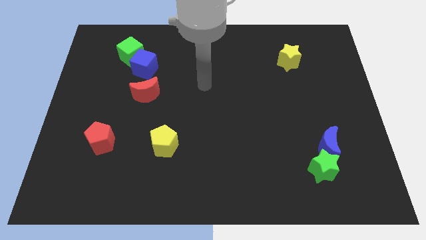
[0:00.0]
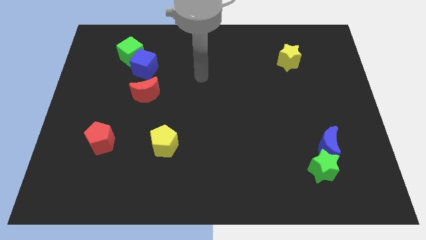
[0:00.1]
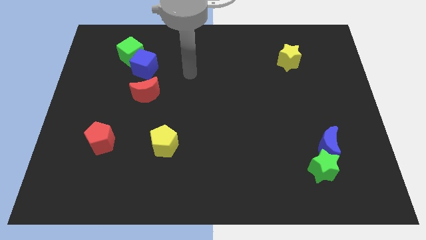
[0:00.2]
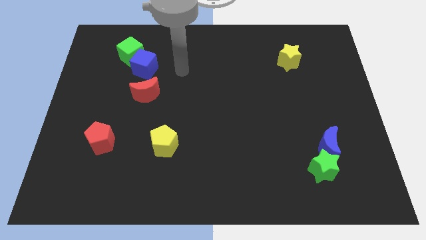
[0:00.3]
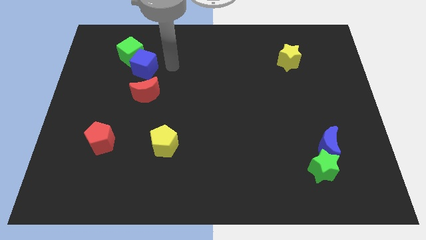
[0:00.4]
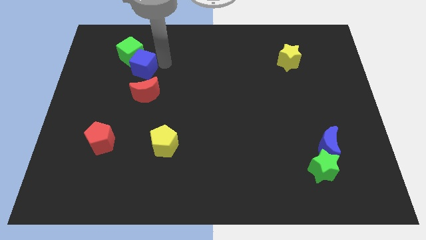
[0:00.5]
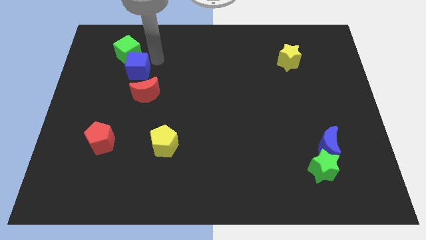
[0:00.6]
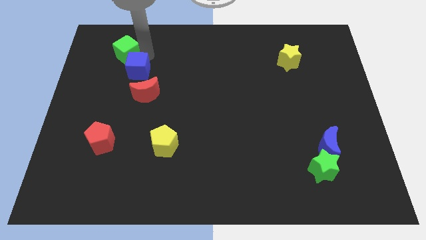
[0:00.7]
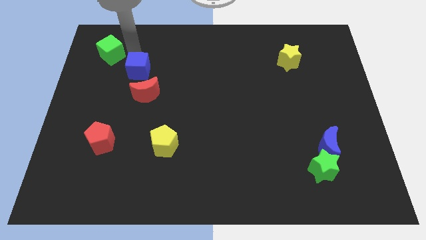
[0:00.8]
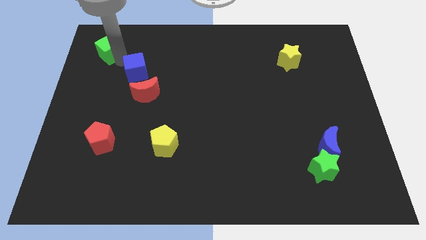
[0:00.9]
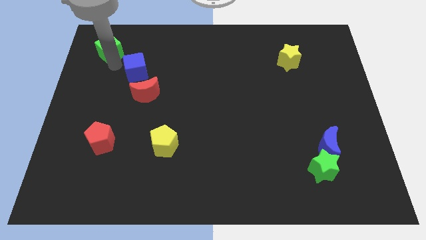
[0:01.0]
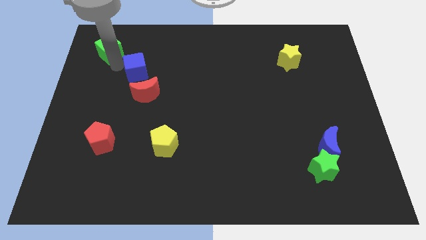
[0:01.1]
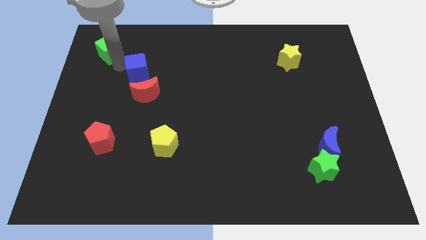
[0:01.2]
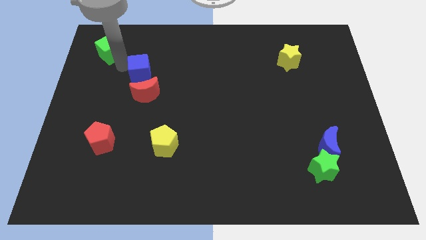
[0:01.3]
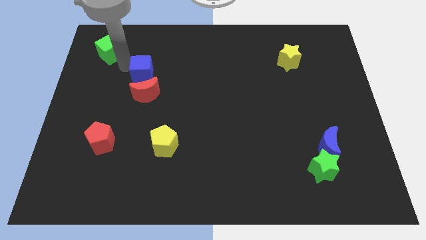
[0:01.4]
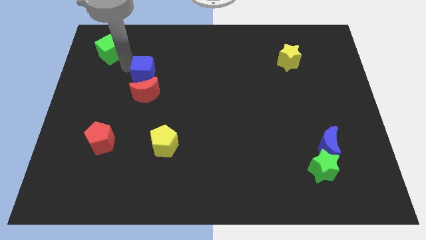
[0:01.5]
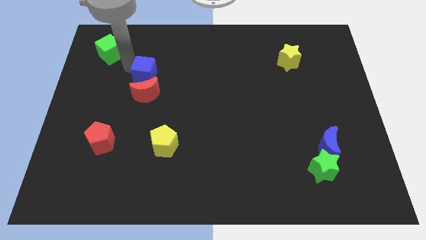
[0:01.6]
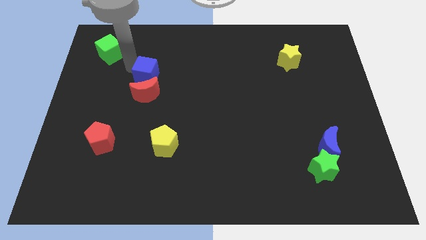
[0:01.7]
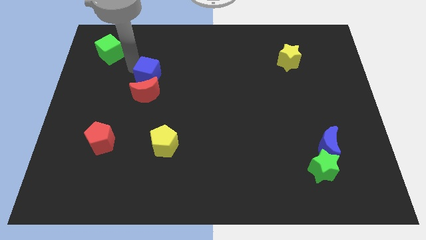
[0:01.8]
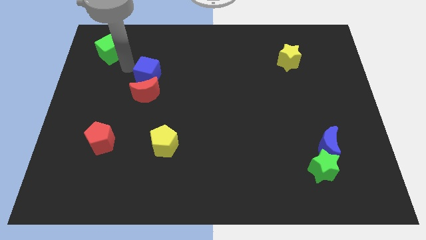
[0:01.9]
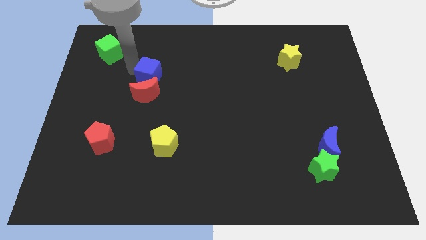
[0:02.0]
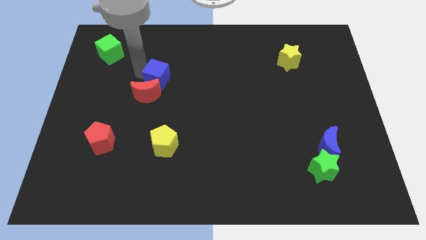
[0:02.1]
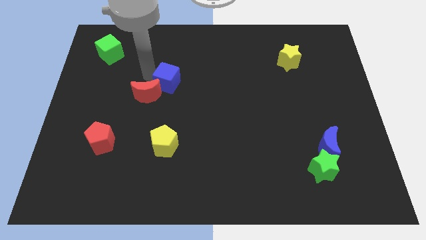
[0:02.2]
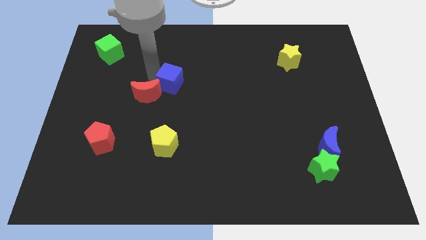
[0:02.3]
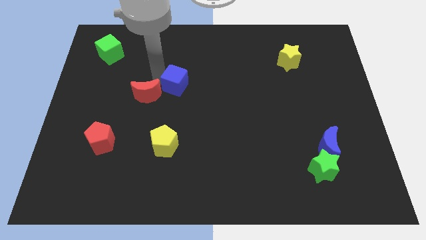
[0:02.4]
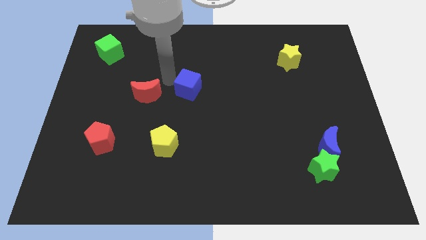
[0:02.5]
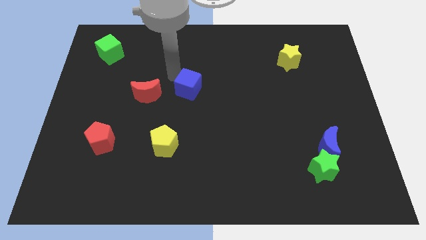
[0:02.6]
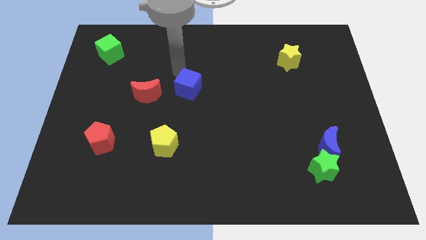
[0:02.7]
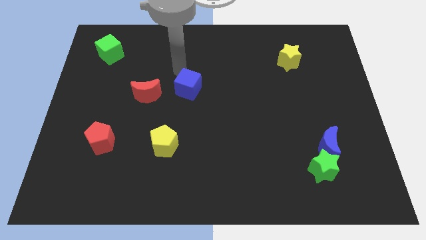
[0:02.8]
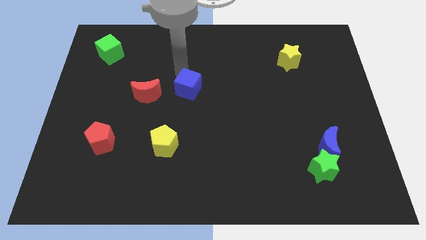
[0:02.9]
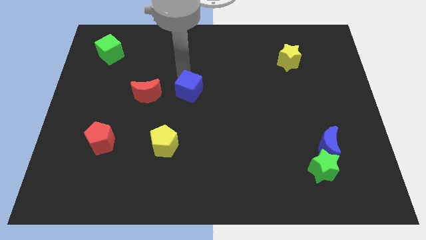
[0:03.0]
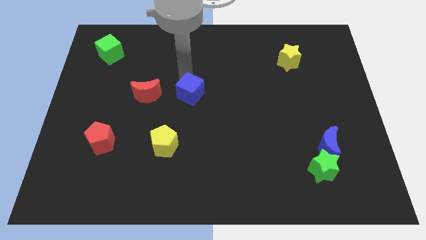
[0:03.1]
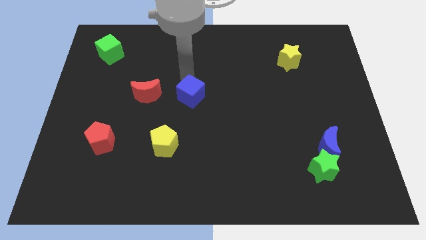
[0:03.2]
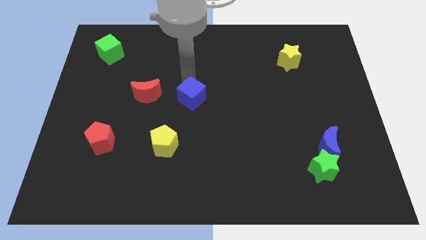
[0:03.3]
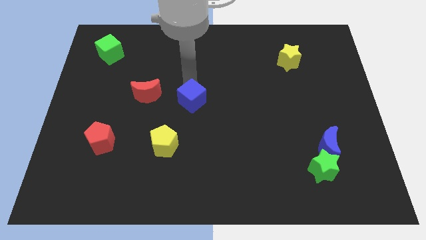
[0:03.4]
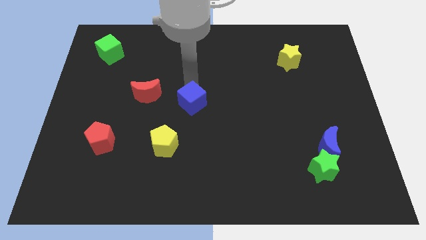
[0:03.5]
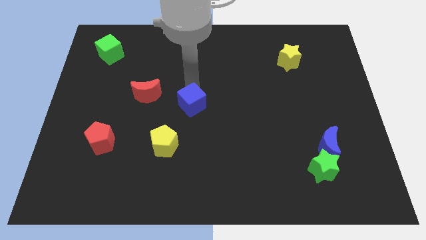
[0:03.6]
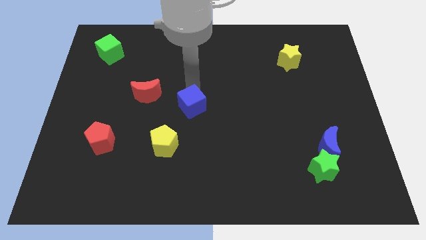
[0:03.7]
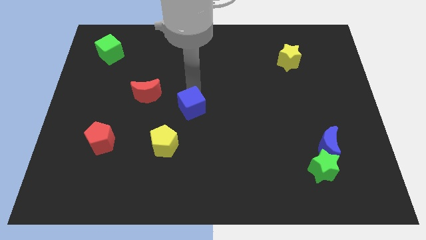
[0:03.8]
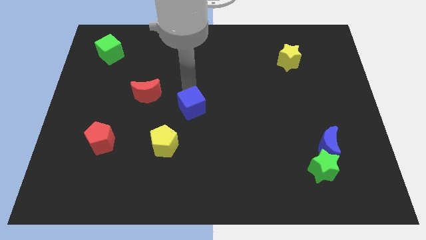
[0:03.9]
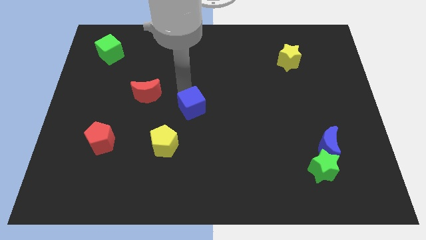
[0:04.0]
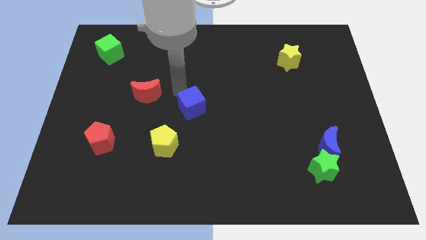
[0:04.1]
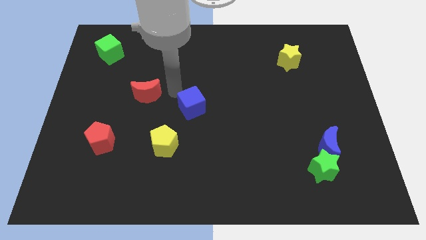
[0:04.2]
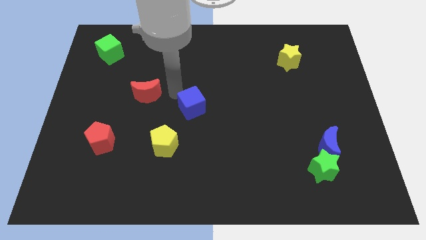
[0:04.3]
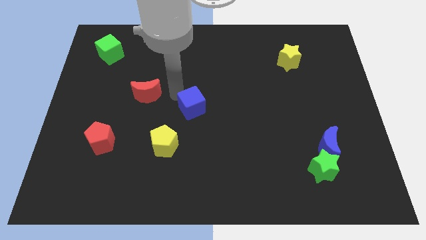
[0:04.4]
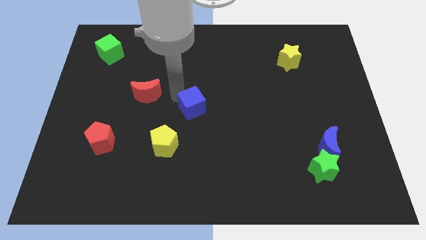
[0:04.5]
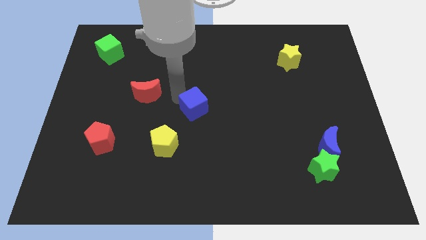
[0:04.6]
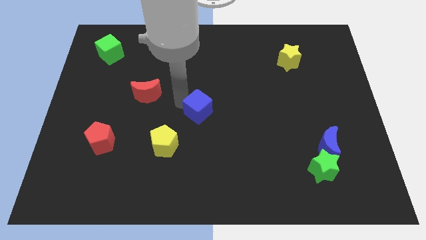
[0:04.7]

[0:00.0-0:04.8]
slide the blue cube diagonally down and right

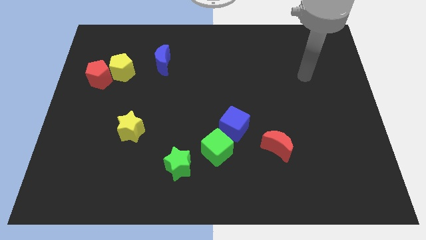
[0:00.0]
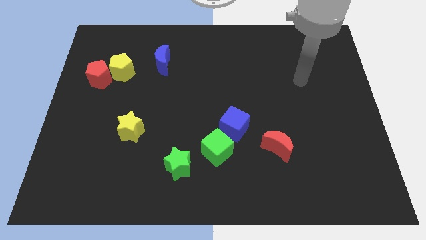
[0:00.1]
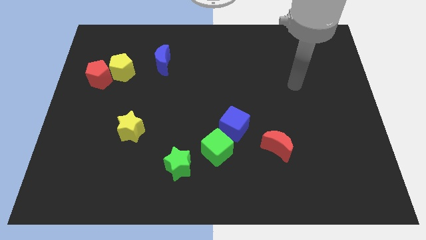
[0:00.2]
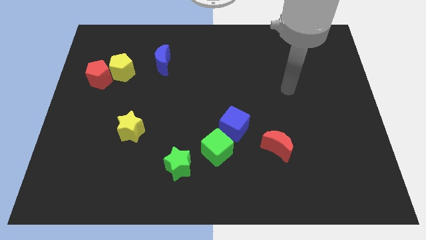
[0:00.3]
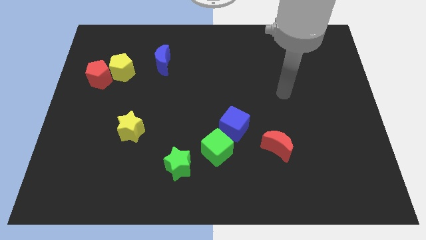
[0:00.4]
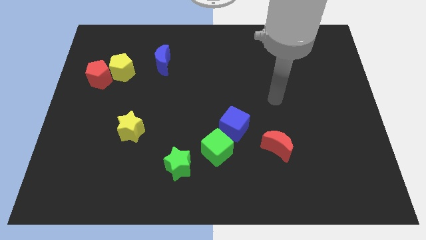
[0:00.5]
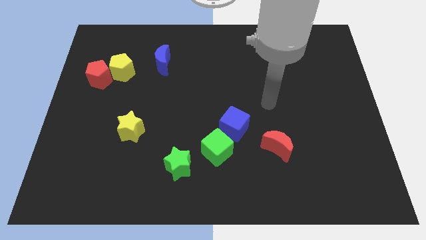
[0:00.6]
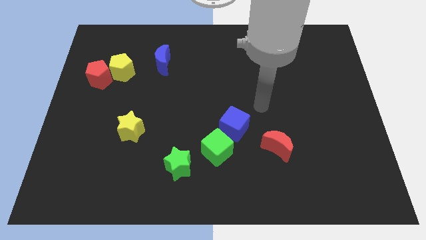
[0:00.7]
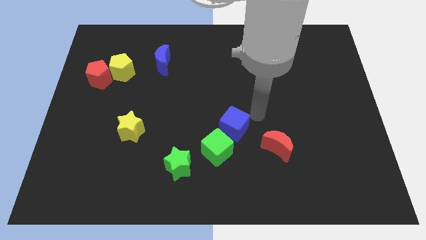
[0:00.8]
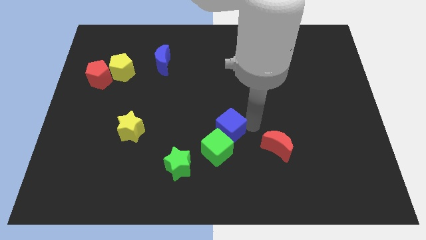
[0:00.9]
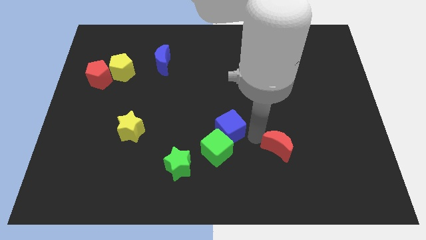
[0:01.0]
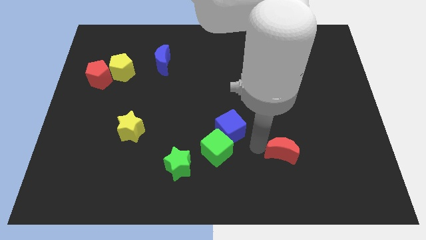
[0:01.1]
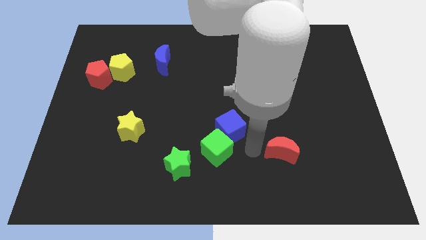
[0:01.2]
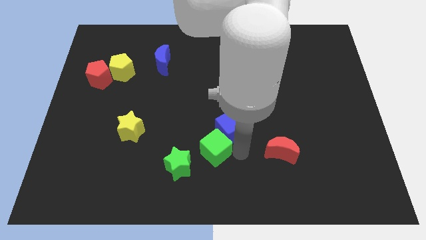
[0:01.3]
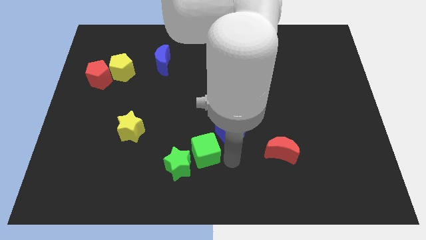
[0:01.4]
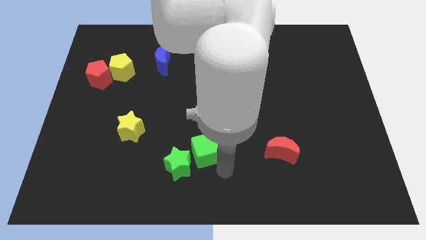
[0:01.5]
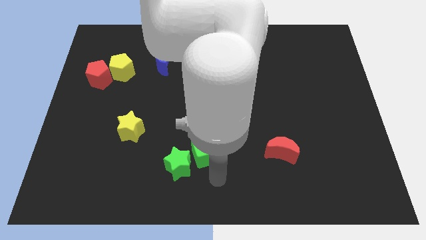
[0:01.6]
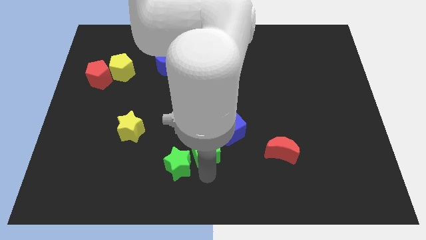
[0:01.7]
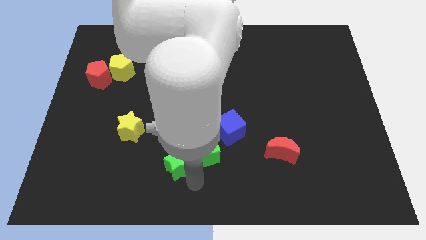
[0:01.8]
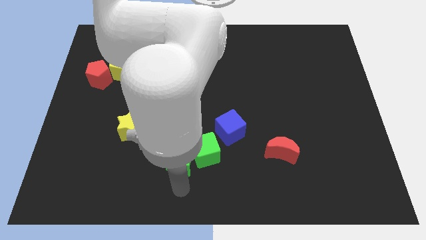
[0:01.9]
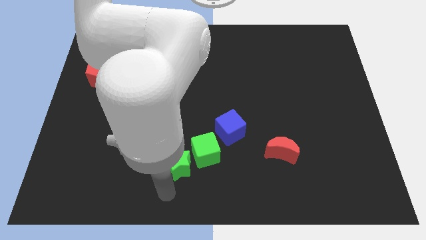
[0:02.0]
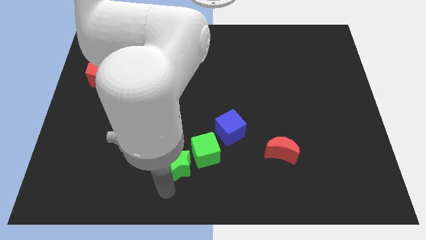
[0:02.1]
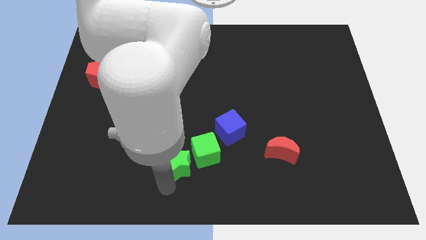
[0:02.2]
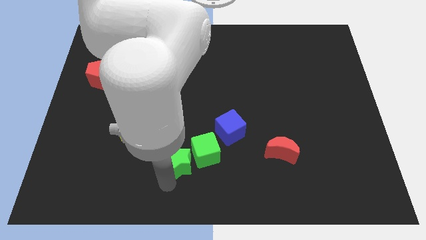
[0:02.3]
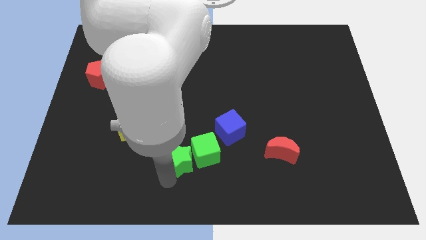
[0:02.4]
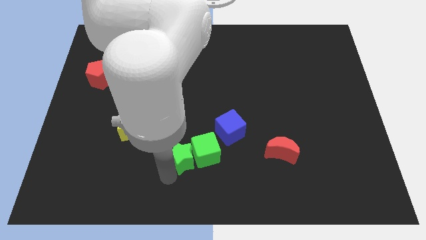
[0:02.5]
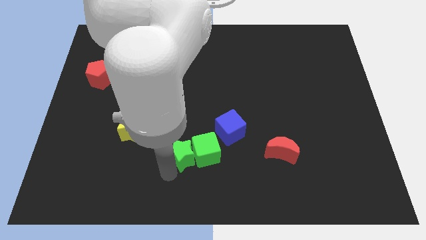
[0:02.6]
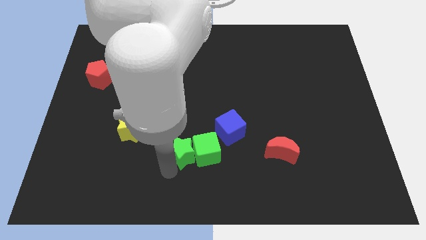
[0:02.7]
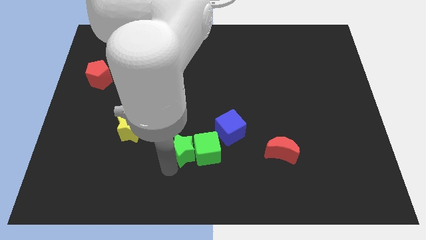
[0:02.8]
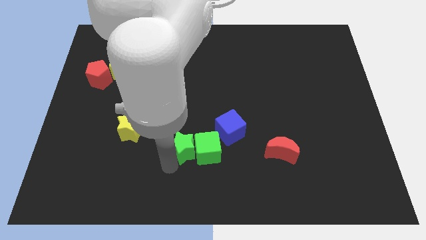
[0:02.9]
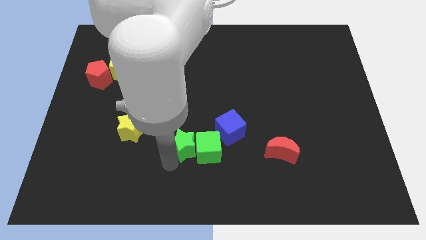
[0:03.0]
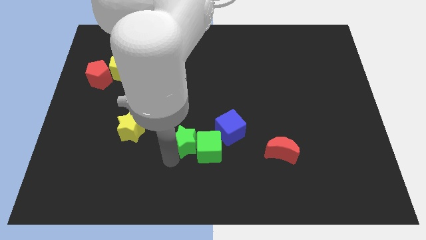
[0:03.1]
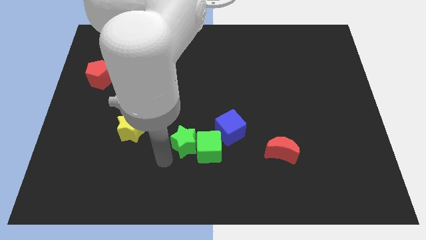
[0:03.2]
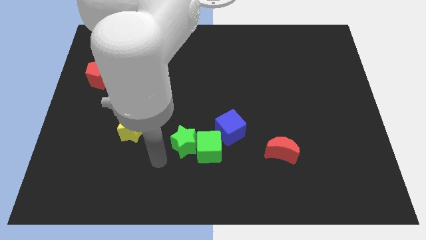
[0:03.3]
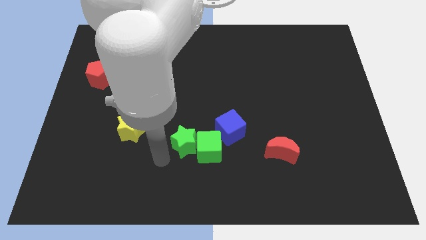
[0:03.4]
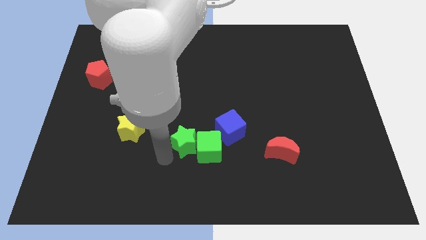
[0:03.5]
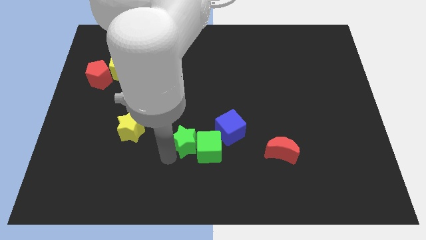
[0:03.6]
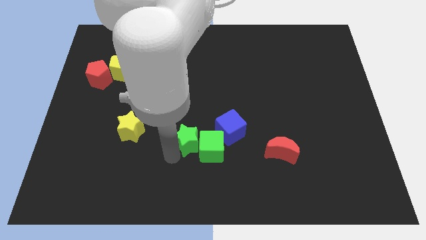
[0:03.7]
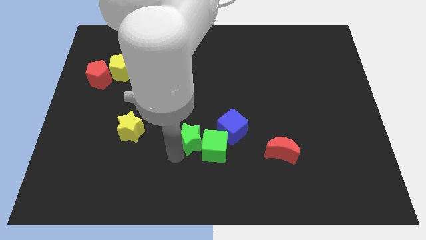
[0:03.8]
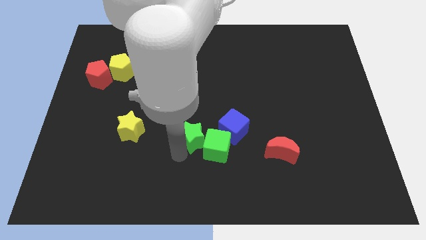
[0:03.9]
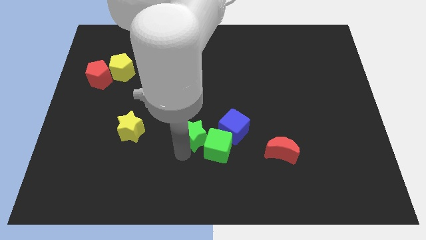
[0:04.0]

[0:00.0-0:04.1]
move the green star up and to the right a bit
